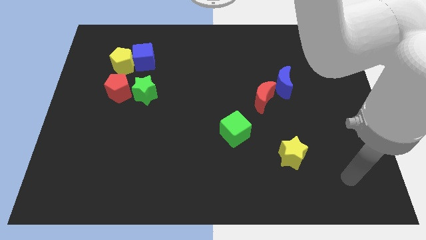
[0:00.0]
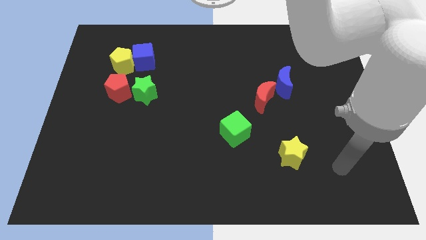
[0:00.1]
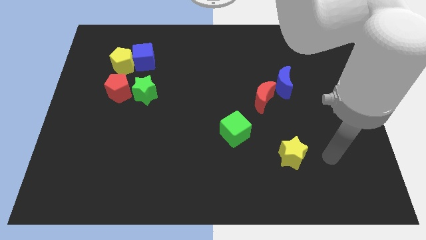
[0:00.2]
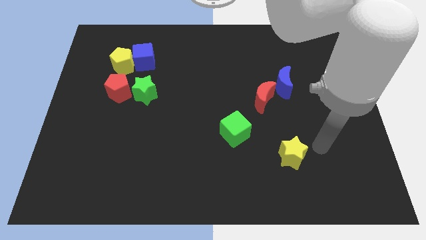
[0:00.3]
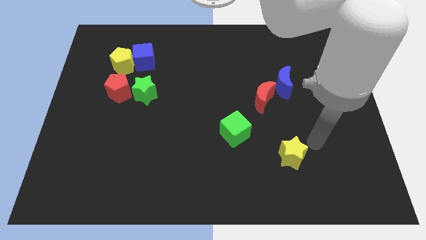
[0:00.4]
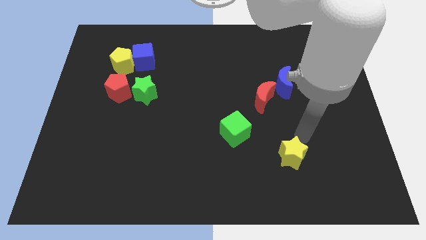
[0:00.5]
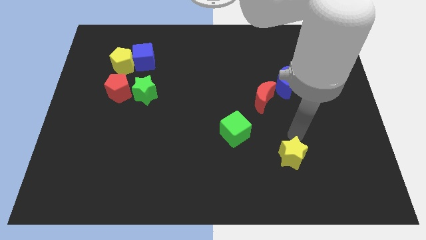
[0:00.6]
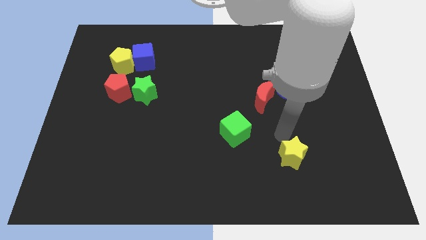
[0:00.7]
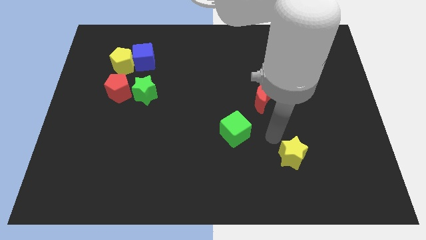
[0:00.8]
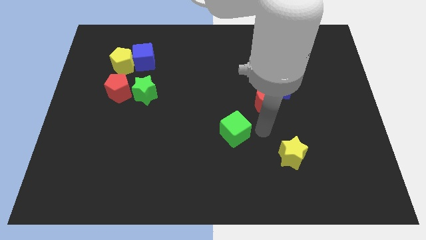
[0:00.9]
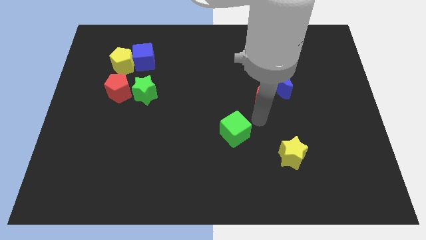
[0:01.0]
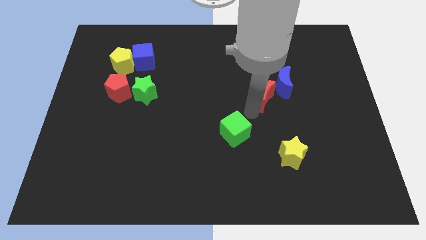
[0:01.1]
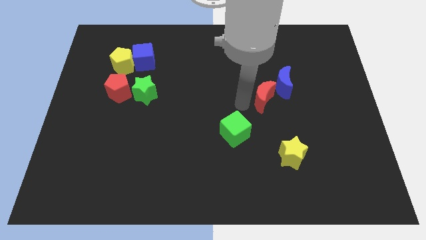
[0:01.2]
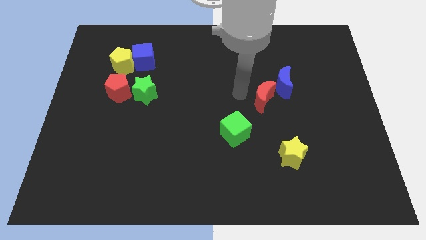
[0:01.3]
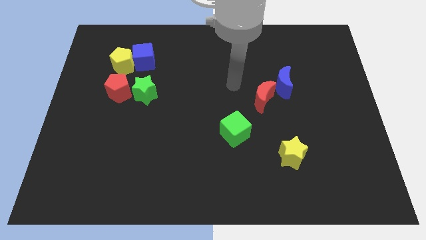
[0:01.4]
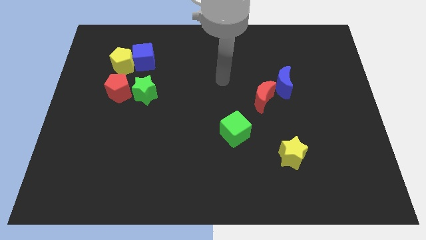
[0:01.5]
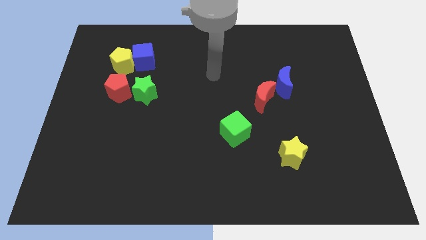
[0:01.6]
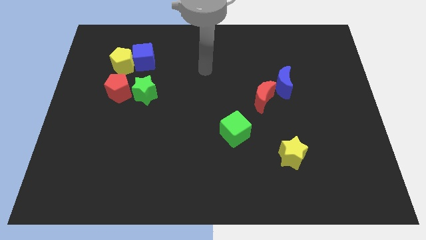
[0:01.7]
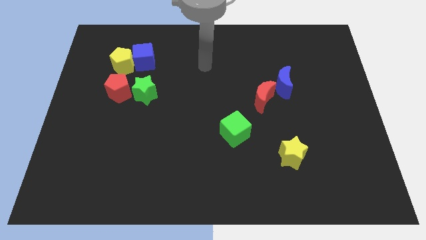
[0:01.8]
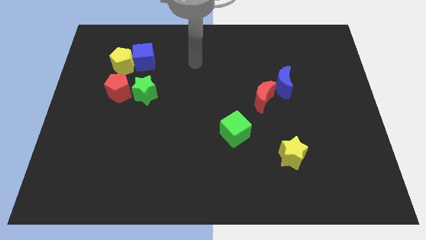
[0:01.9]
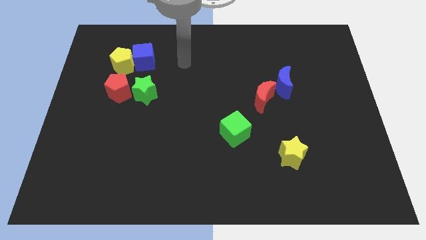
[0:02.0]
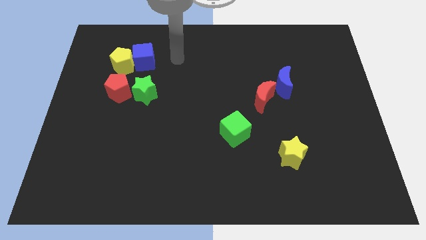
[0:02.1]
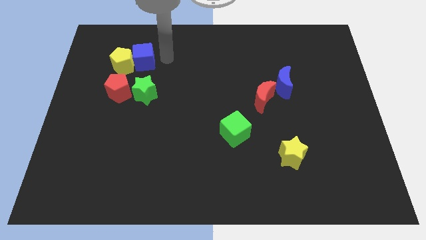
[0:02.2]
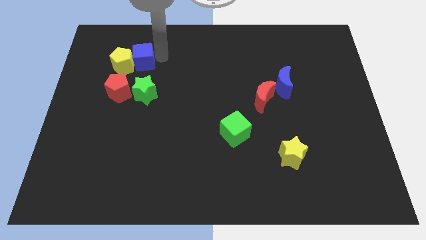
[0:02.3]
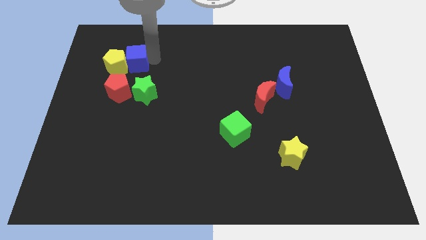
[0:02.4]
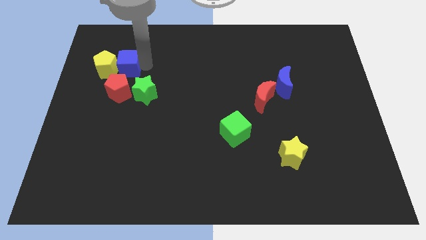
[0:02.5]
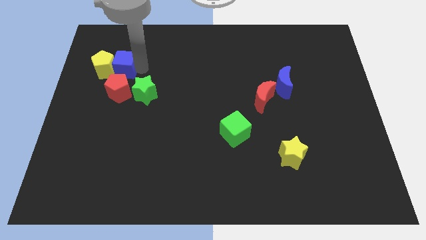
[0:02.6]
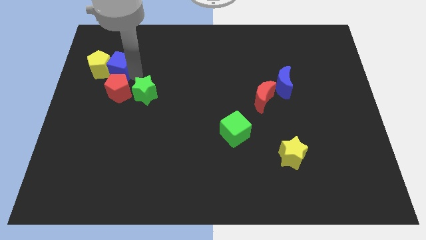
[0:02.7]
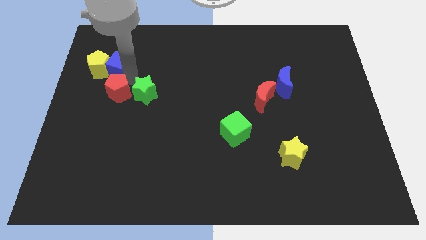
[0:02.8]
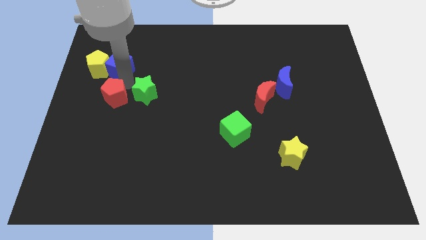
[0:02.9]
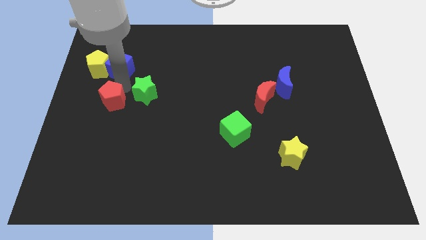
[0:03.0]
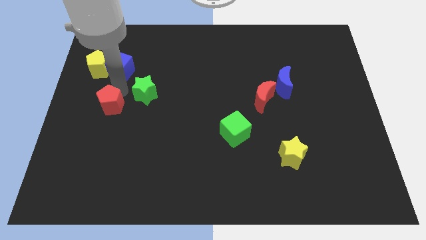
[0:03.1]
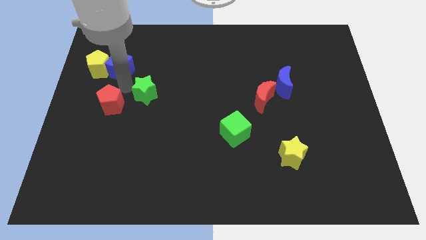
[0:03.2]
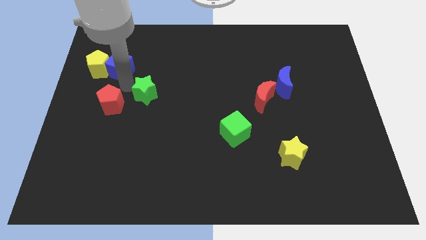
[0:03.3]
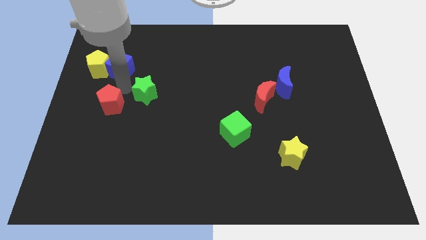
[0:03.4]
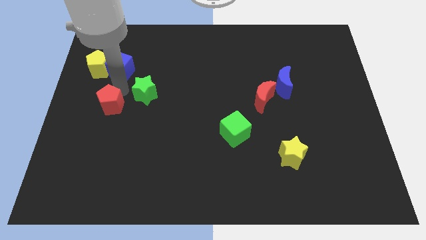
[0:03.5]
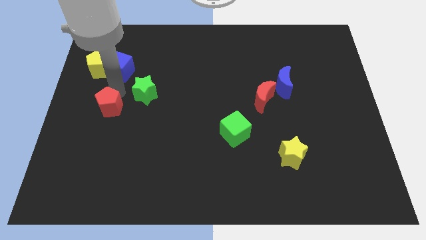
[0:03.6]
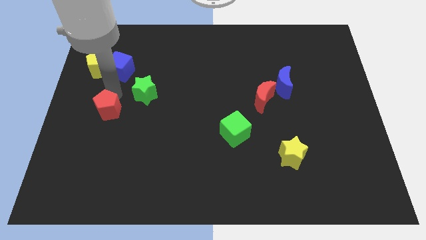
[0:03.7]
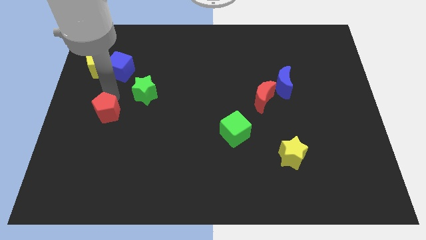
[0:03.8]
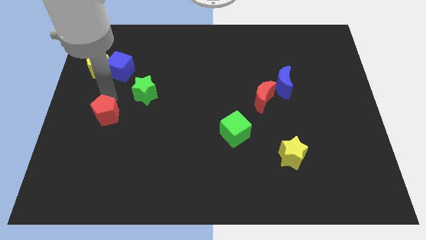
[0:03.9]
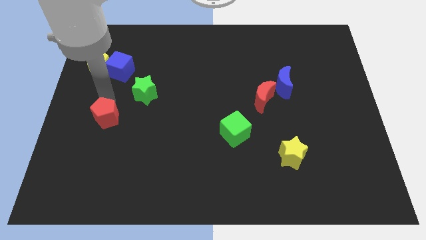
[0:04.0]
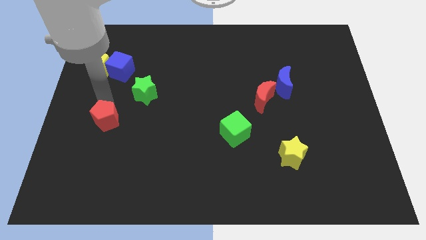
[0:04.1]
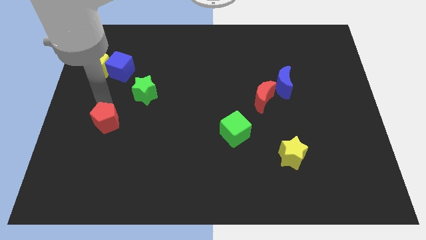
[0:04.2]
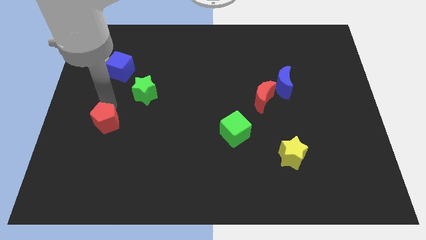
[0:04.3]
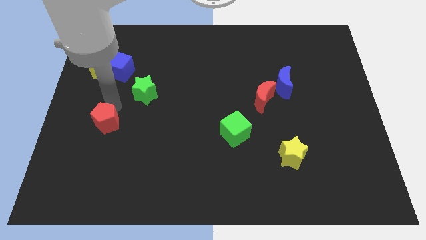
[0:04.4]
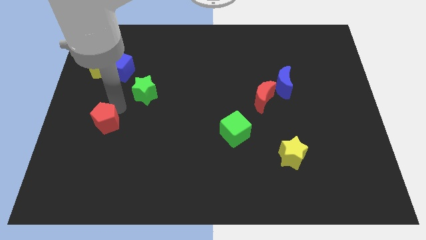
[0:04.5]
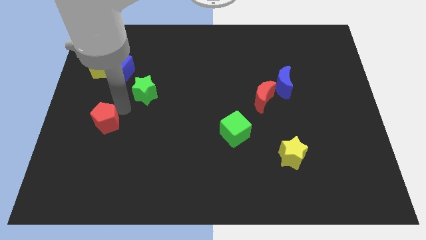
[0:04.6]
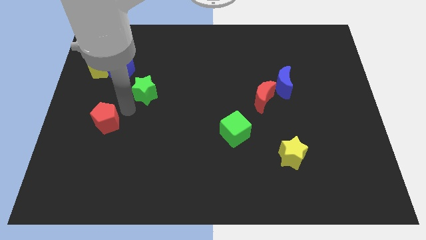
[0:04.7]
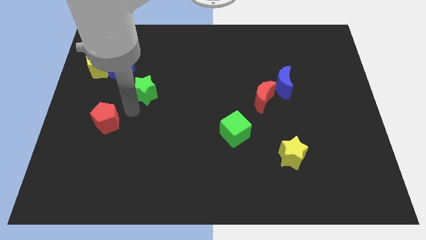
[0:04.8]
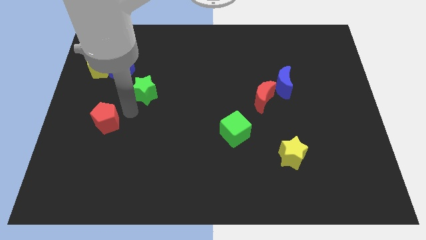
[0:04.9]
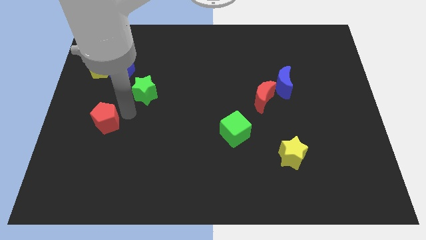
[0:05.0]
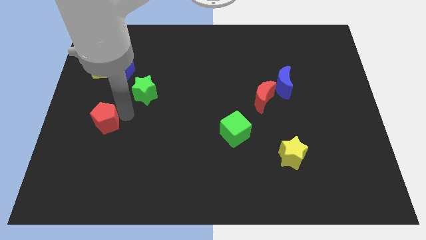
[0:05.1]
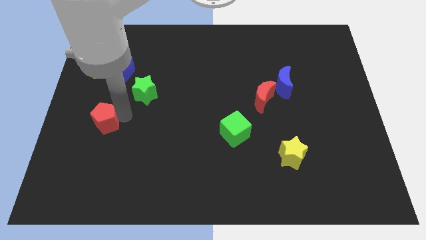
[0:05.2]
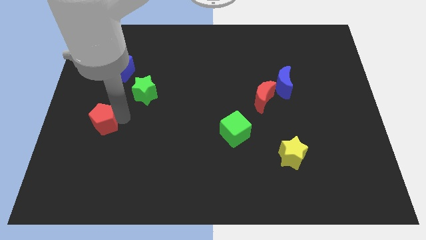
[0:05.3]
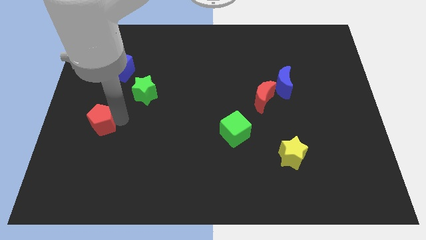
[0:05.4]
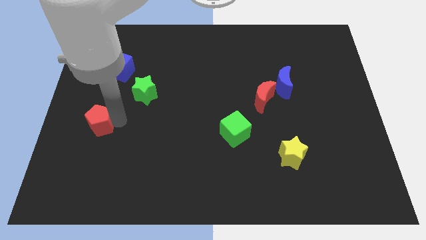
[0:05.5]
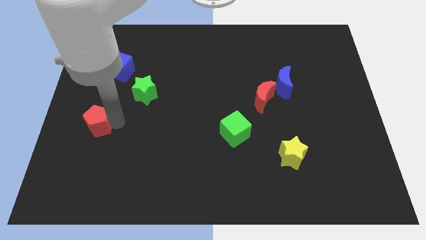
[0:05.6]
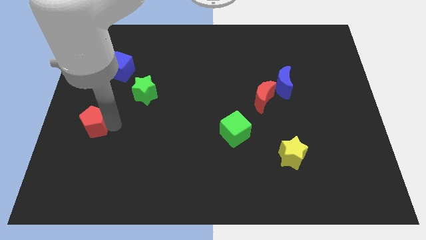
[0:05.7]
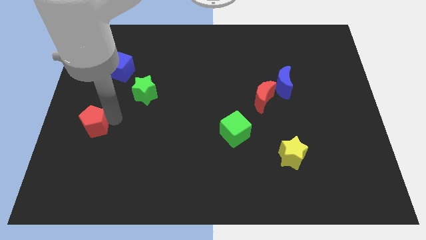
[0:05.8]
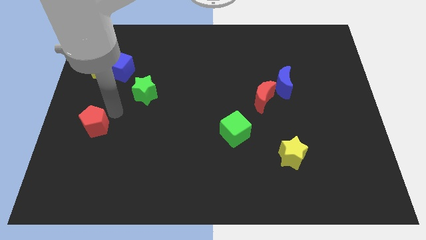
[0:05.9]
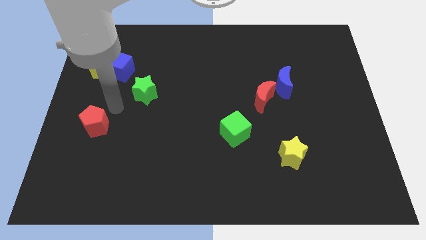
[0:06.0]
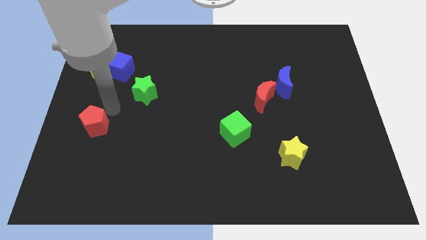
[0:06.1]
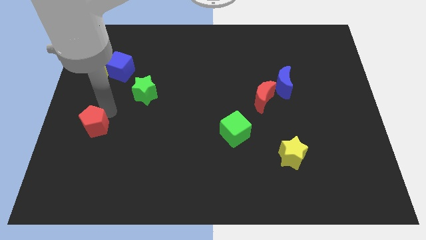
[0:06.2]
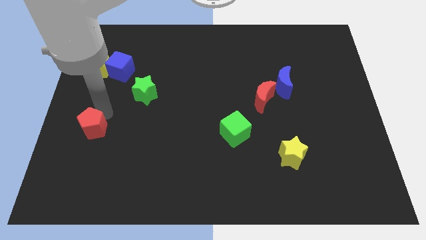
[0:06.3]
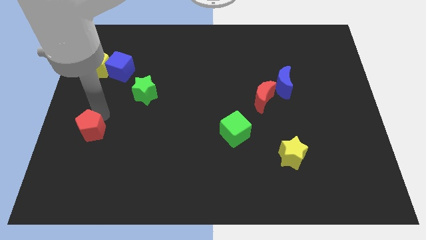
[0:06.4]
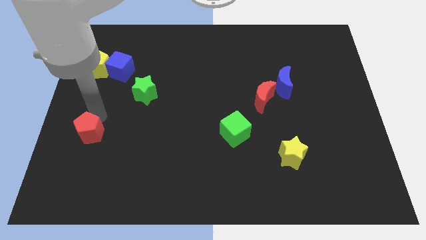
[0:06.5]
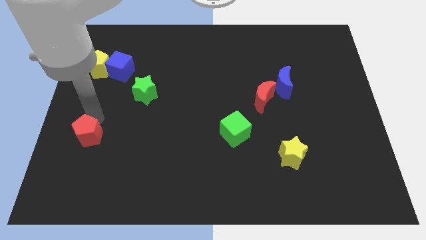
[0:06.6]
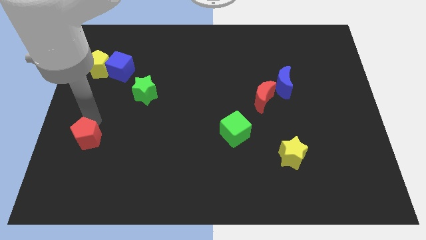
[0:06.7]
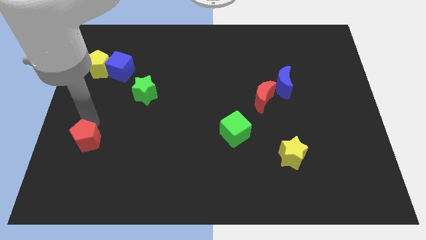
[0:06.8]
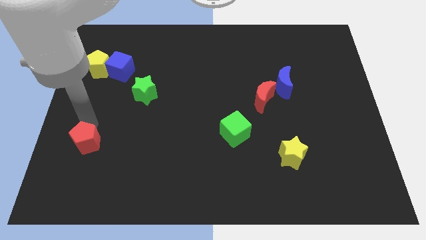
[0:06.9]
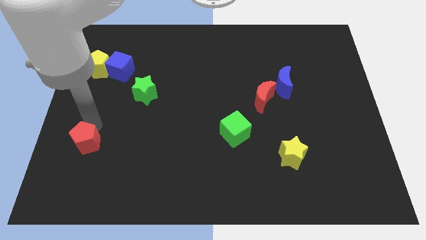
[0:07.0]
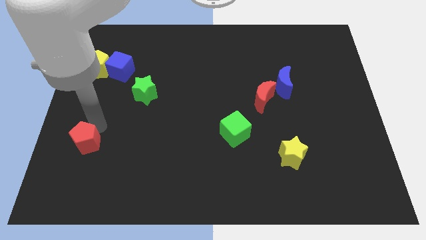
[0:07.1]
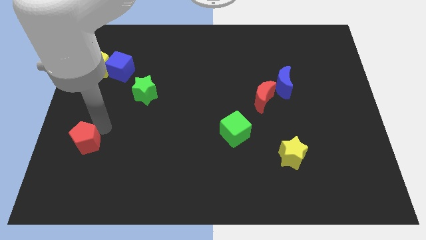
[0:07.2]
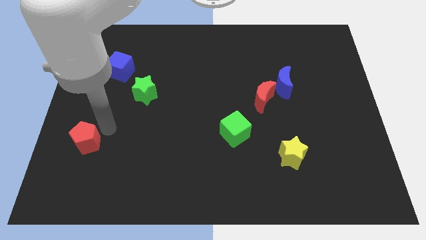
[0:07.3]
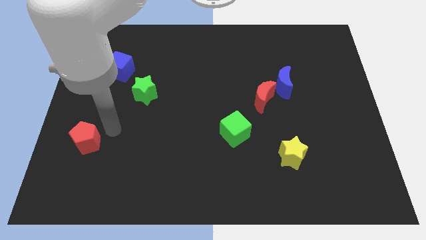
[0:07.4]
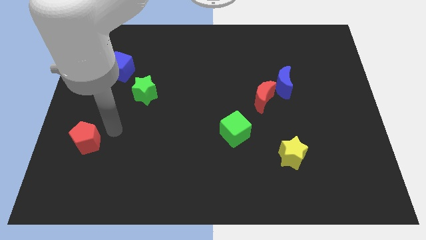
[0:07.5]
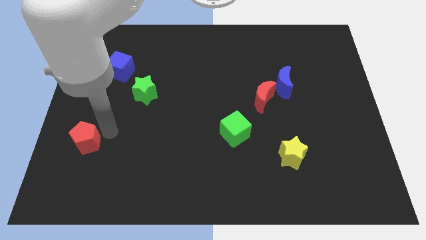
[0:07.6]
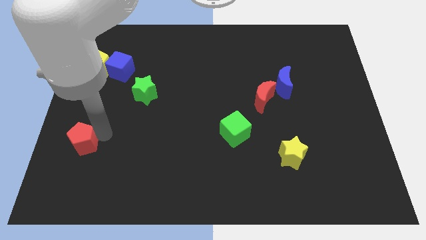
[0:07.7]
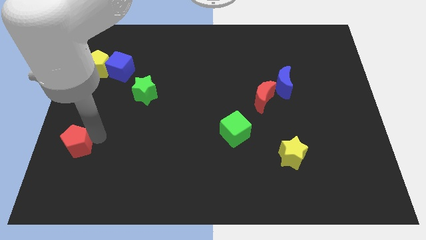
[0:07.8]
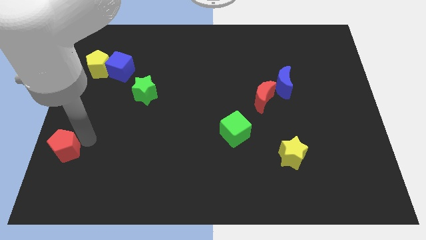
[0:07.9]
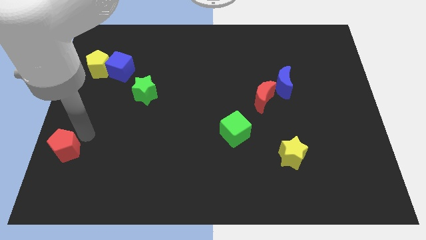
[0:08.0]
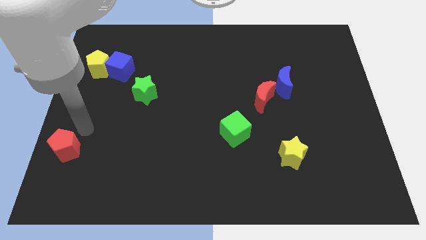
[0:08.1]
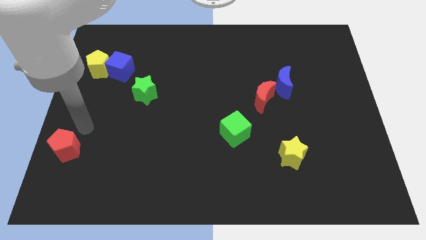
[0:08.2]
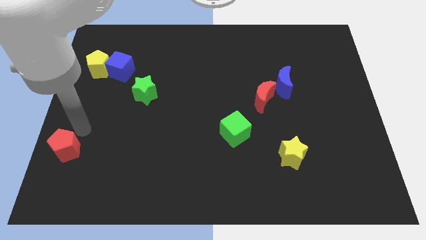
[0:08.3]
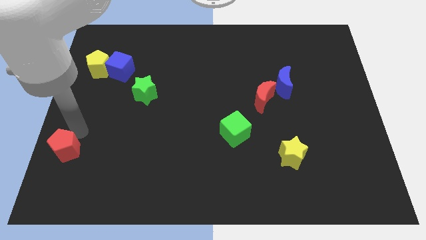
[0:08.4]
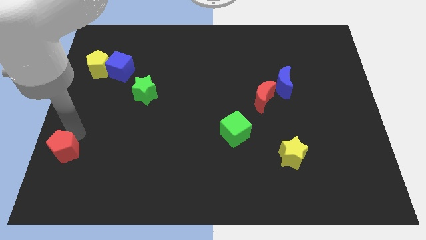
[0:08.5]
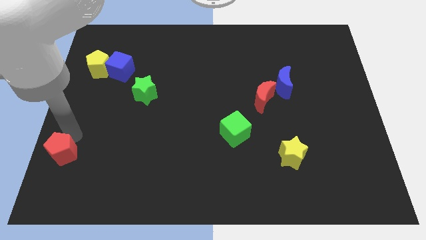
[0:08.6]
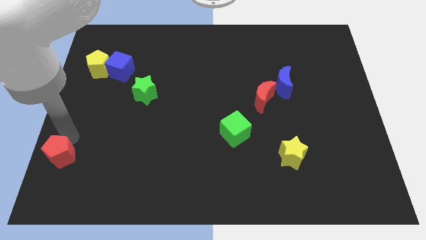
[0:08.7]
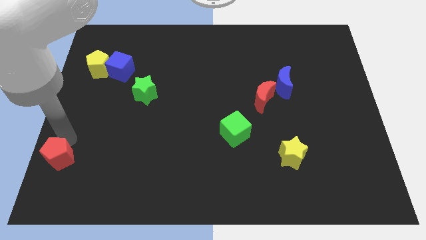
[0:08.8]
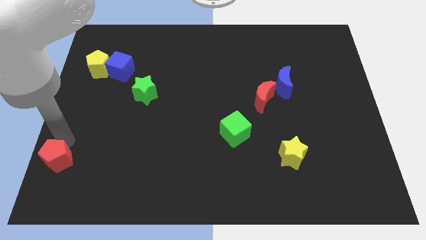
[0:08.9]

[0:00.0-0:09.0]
slide the red pentagon to the bottom left of the board
